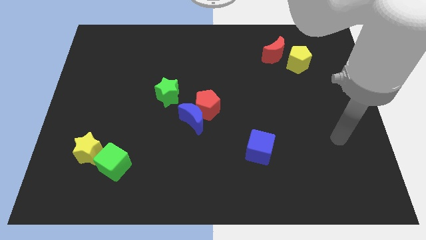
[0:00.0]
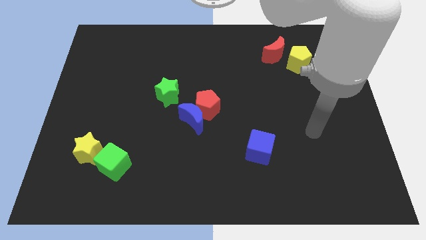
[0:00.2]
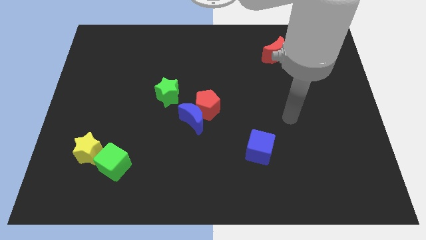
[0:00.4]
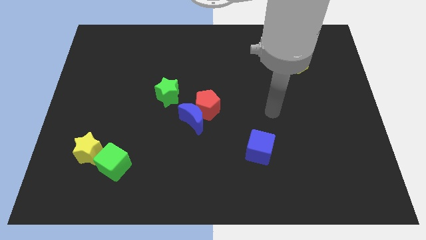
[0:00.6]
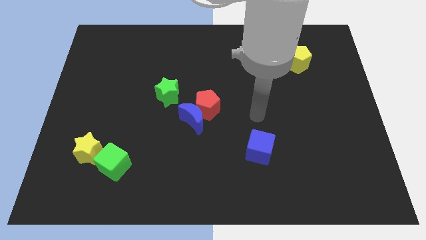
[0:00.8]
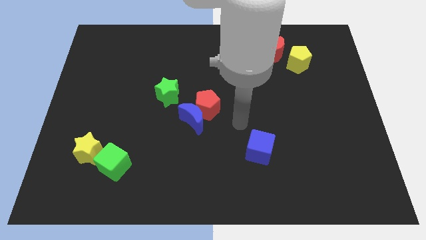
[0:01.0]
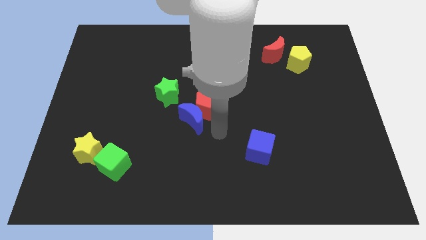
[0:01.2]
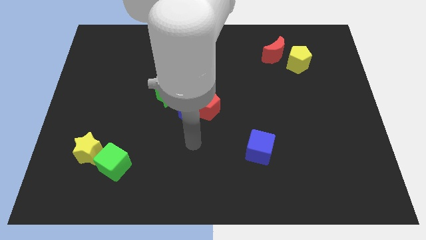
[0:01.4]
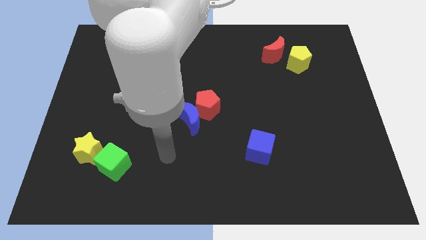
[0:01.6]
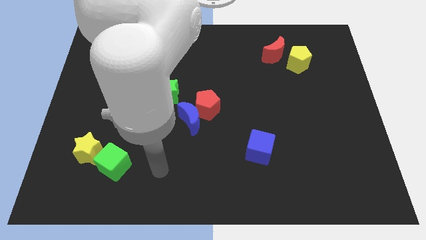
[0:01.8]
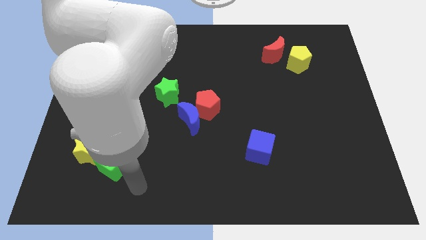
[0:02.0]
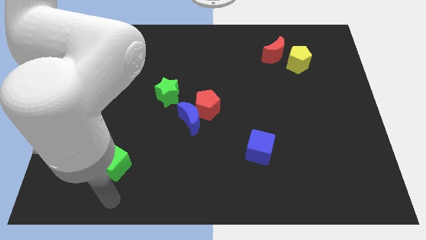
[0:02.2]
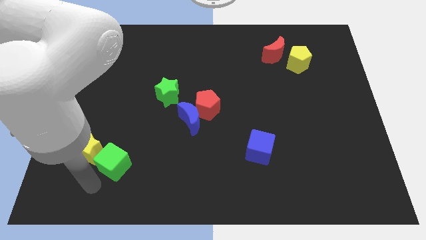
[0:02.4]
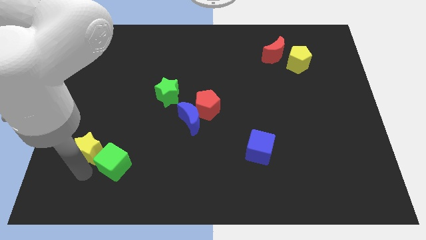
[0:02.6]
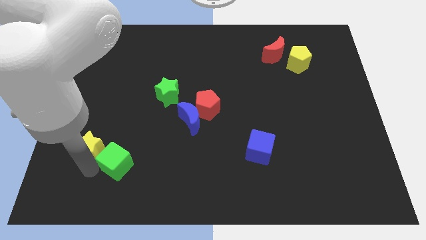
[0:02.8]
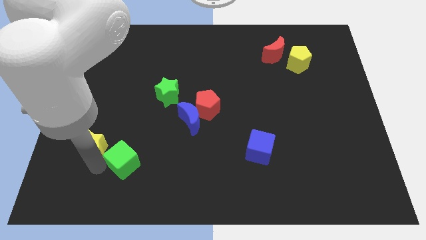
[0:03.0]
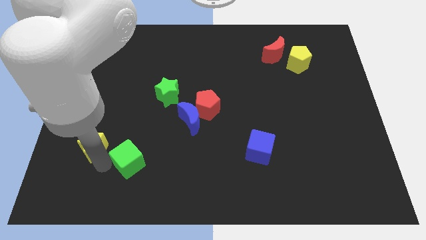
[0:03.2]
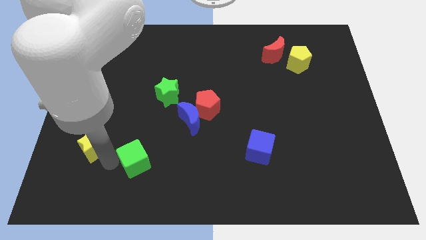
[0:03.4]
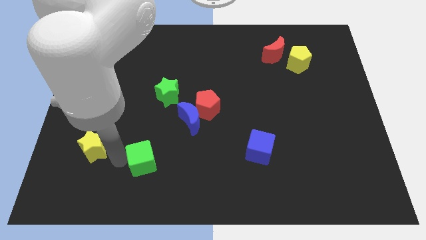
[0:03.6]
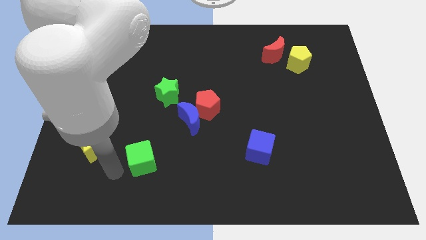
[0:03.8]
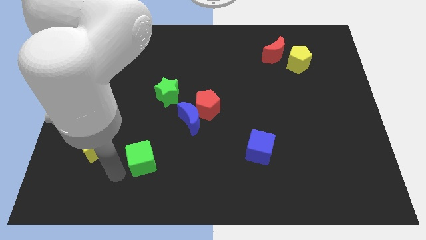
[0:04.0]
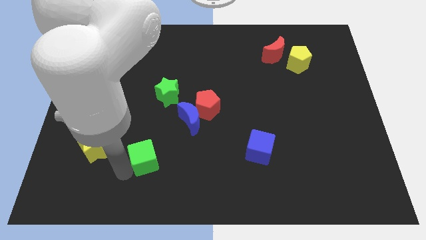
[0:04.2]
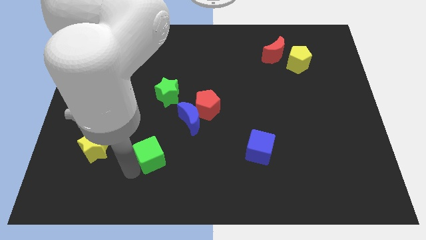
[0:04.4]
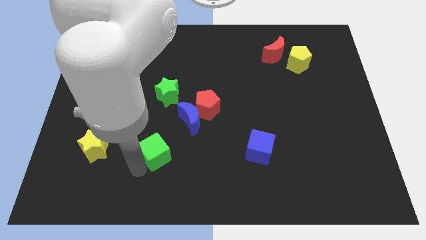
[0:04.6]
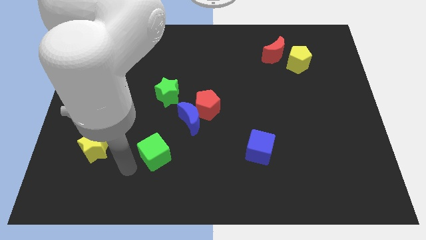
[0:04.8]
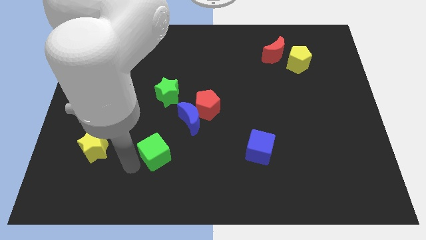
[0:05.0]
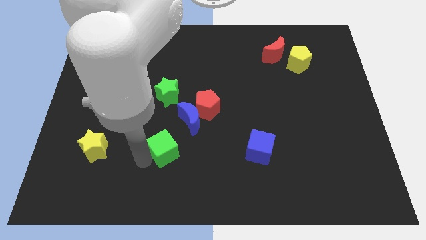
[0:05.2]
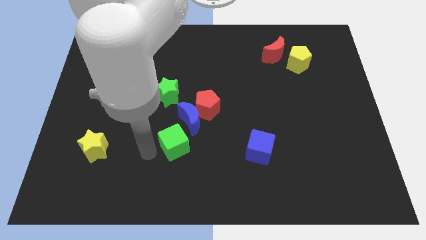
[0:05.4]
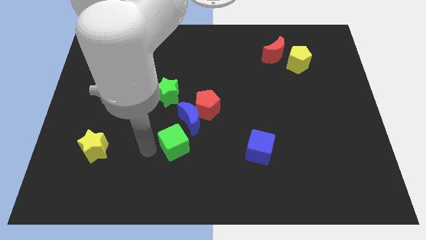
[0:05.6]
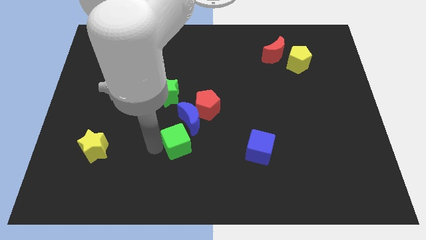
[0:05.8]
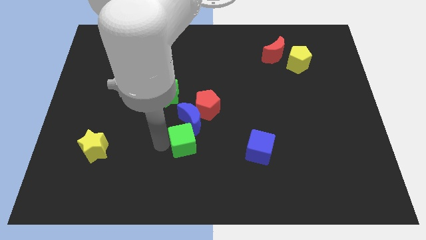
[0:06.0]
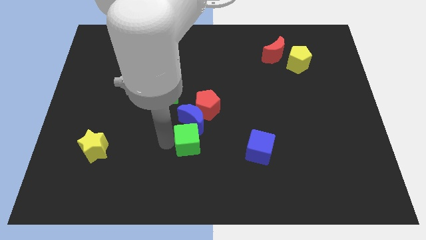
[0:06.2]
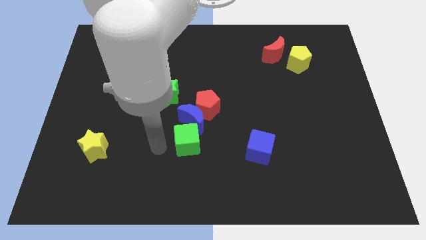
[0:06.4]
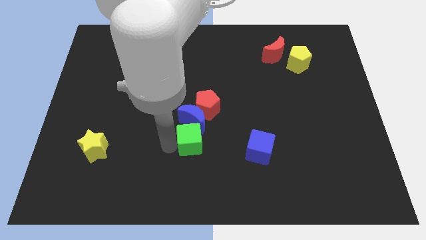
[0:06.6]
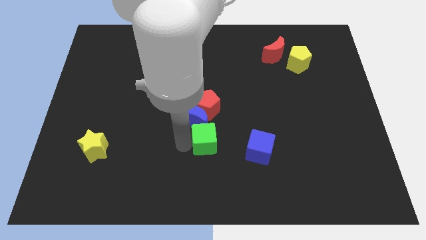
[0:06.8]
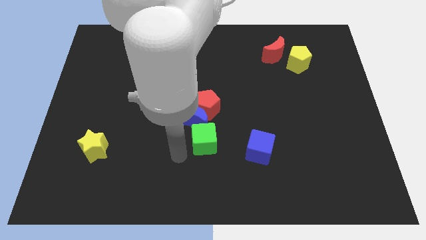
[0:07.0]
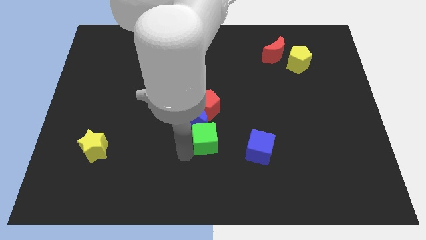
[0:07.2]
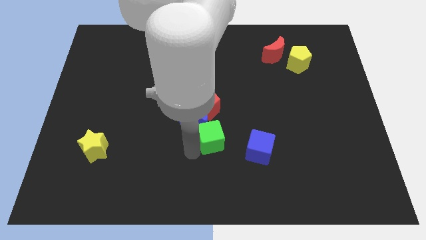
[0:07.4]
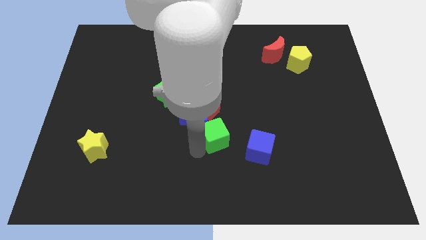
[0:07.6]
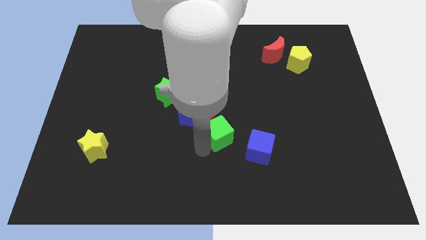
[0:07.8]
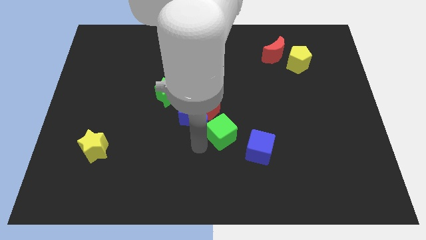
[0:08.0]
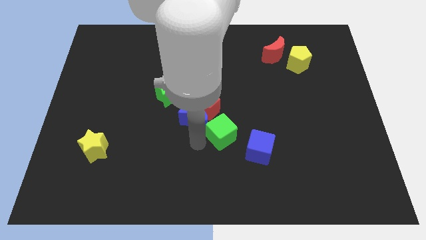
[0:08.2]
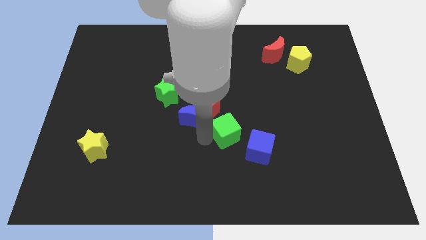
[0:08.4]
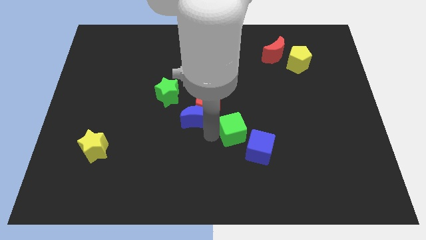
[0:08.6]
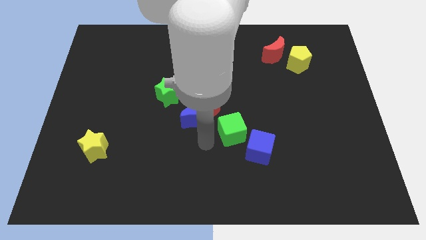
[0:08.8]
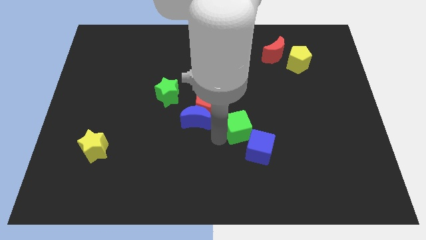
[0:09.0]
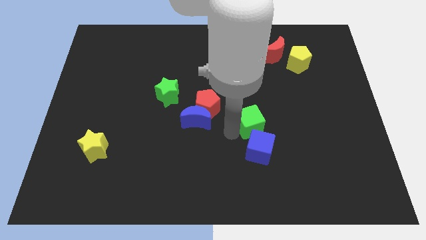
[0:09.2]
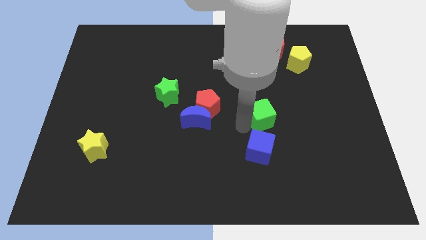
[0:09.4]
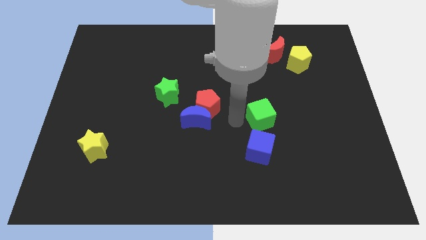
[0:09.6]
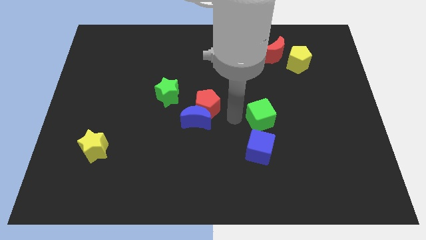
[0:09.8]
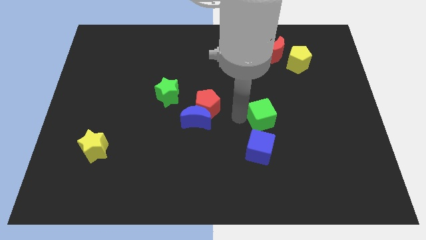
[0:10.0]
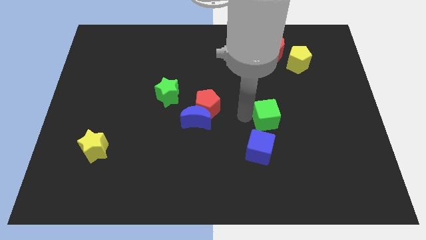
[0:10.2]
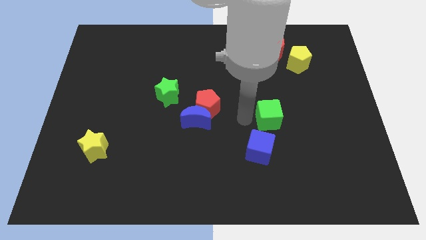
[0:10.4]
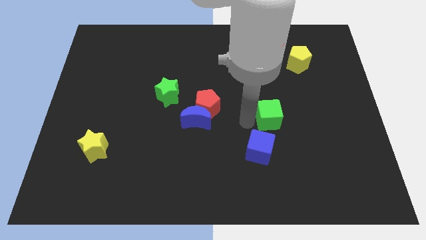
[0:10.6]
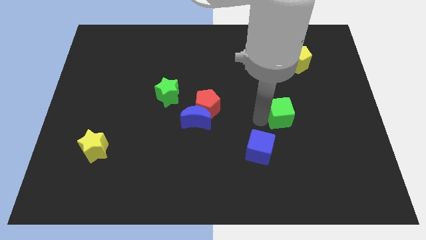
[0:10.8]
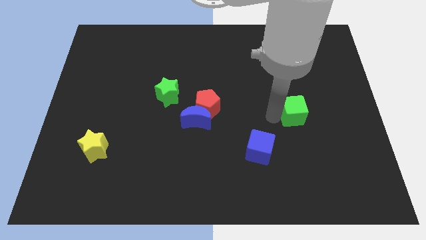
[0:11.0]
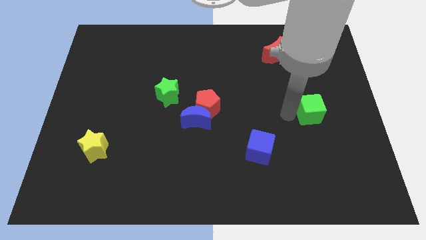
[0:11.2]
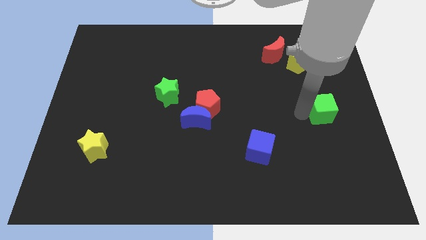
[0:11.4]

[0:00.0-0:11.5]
put the green cube to the right side of the board

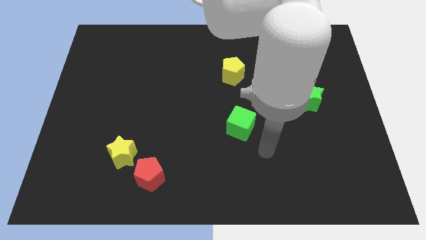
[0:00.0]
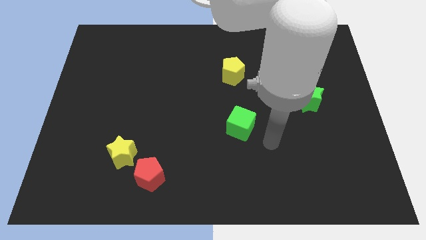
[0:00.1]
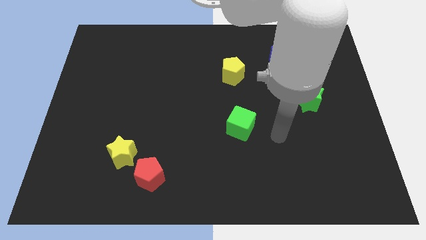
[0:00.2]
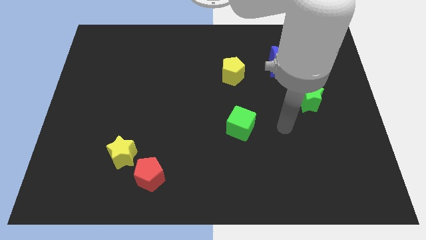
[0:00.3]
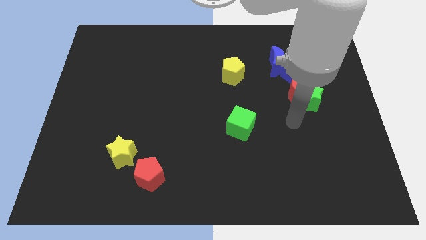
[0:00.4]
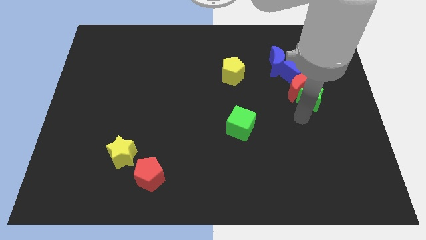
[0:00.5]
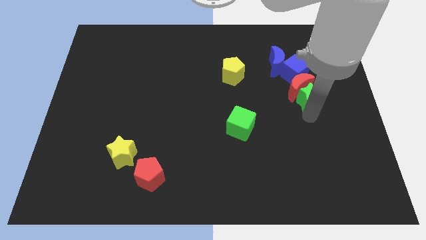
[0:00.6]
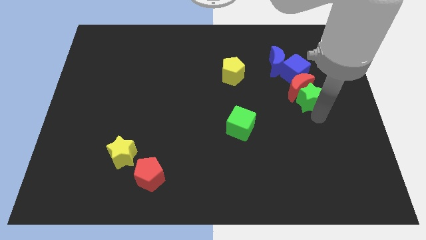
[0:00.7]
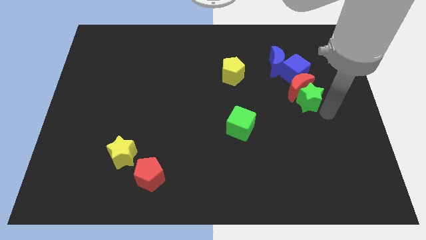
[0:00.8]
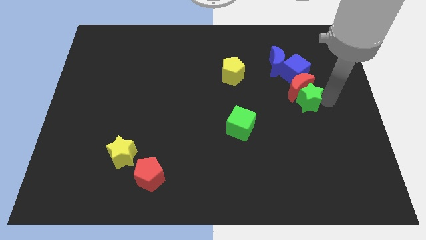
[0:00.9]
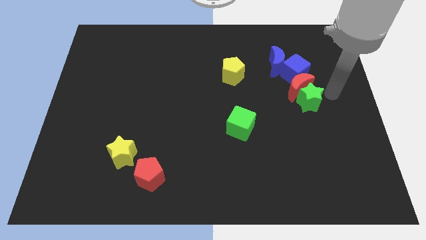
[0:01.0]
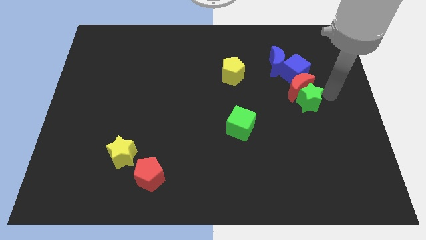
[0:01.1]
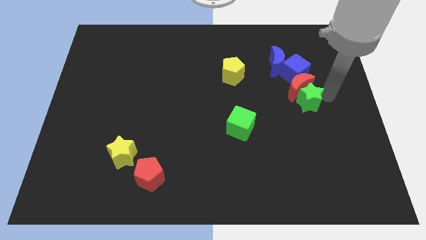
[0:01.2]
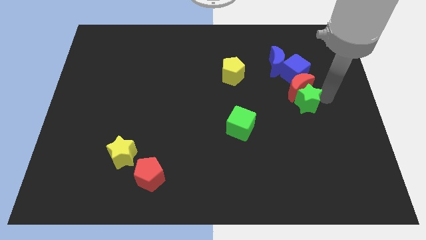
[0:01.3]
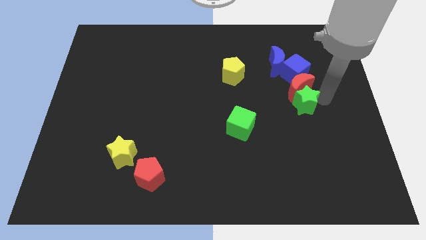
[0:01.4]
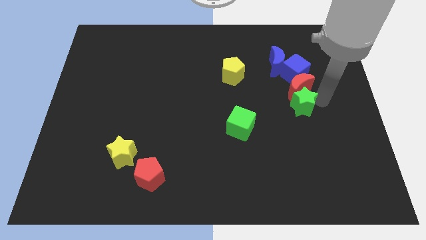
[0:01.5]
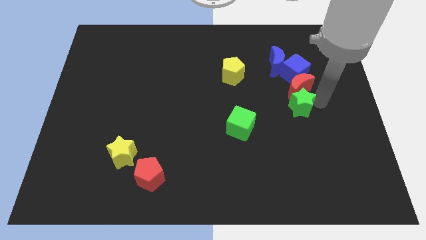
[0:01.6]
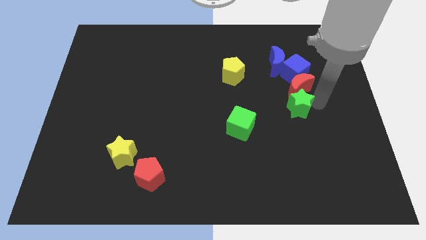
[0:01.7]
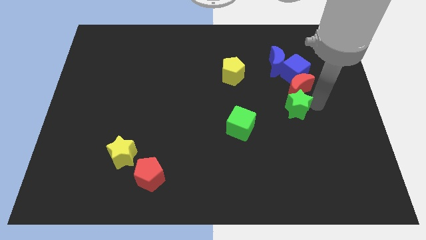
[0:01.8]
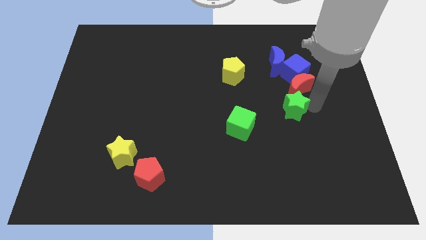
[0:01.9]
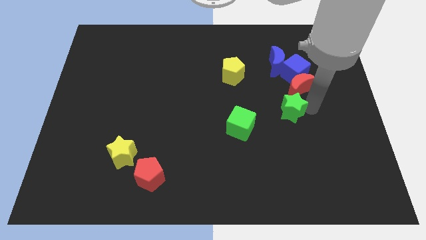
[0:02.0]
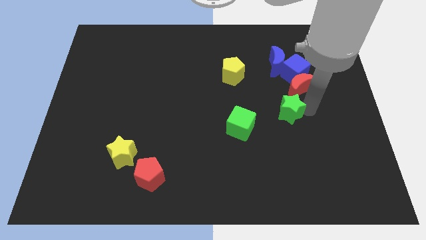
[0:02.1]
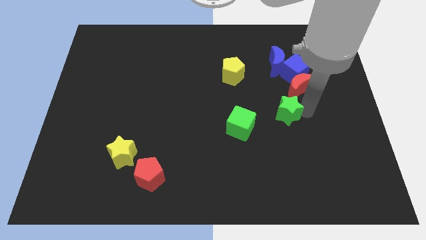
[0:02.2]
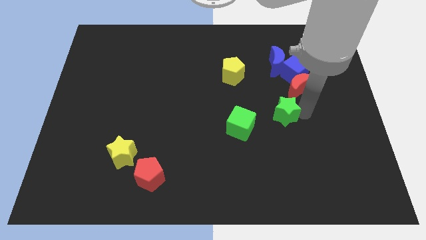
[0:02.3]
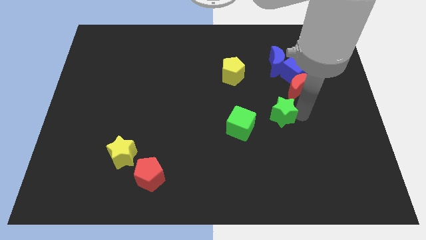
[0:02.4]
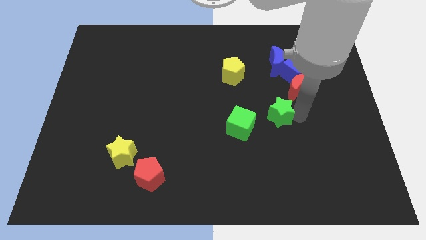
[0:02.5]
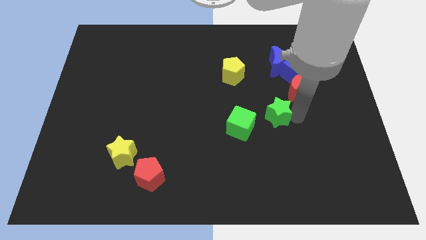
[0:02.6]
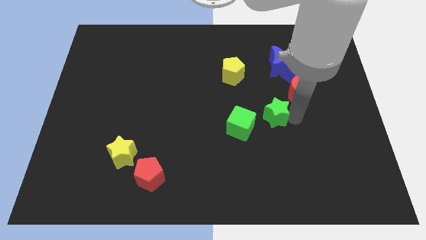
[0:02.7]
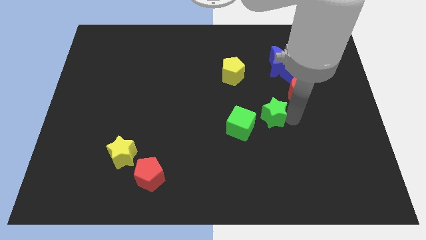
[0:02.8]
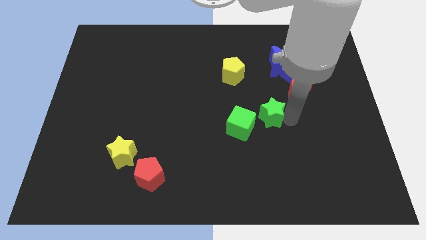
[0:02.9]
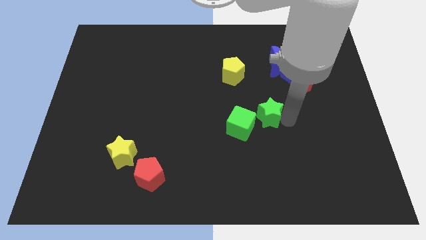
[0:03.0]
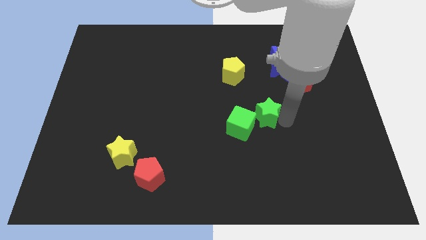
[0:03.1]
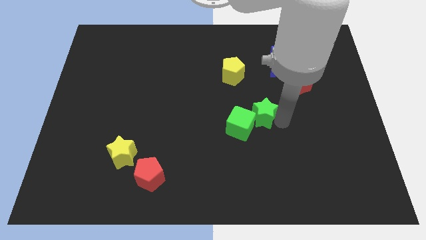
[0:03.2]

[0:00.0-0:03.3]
put the green star to the center of the board
